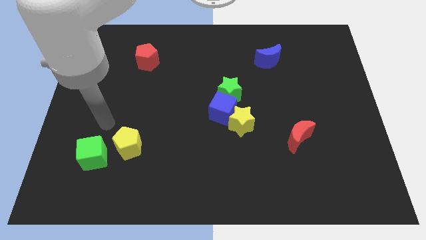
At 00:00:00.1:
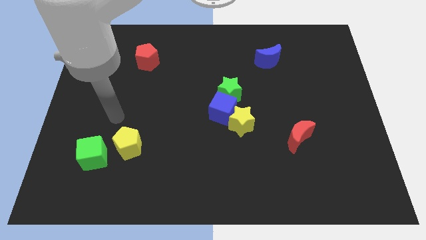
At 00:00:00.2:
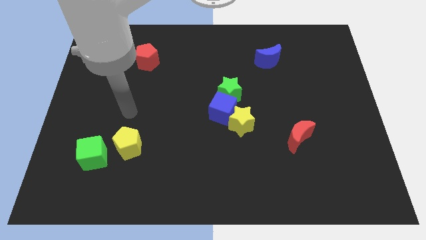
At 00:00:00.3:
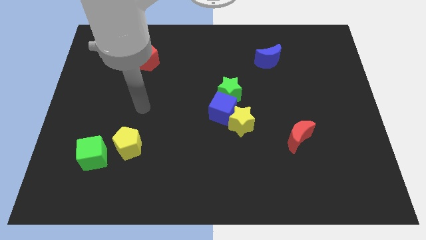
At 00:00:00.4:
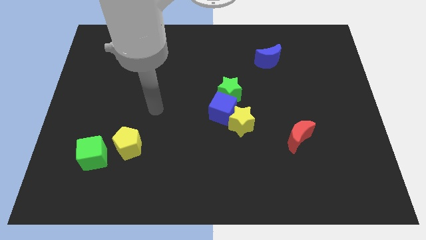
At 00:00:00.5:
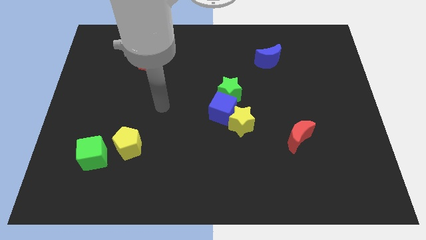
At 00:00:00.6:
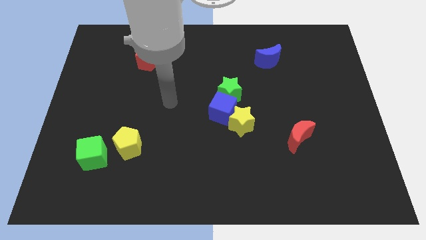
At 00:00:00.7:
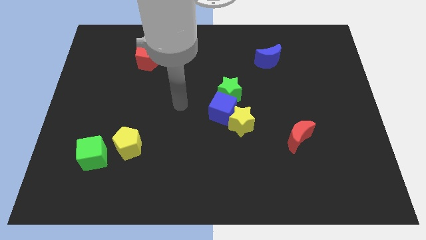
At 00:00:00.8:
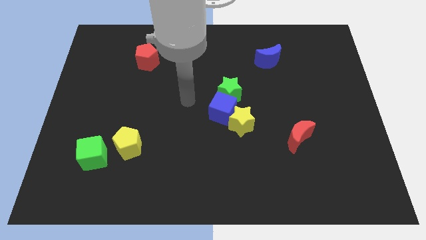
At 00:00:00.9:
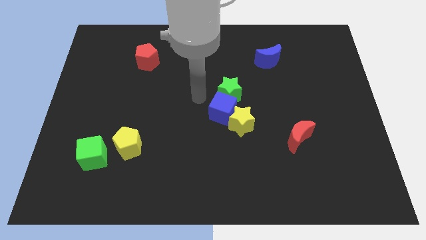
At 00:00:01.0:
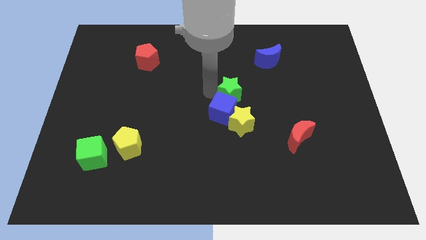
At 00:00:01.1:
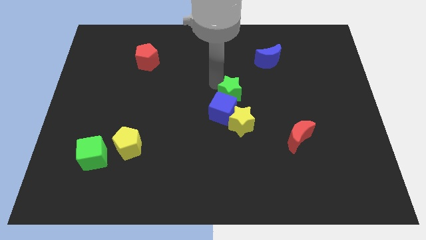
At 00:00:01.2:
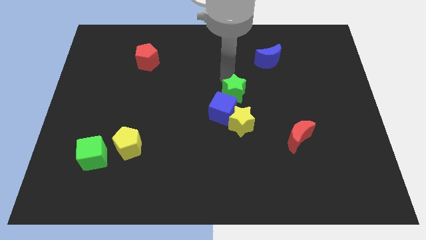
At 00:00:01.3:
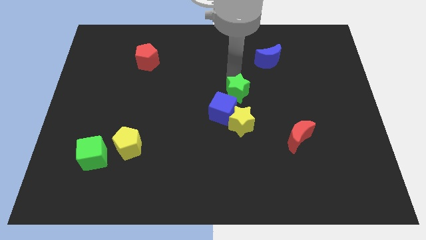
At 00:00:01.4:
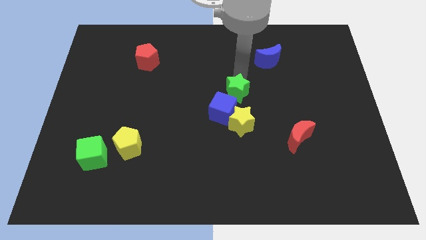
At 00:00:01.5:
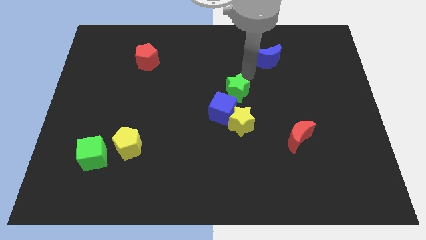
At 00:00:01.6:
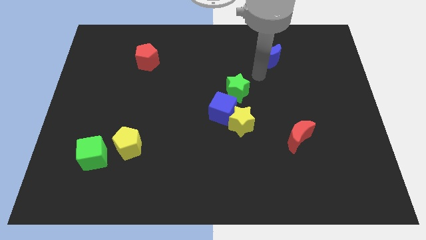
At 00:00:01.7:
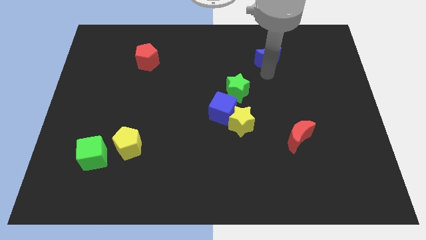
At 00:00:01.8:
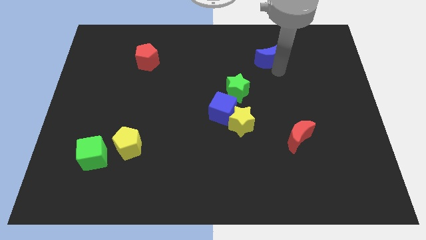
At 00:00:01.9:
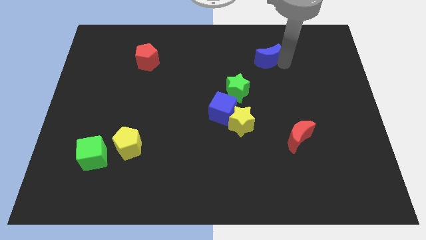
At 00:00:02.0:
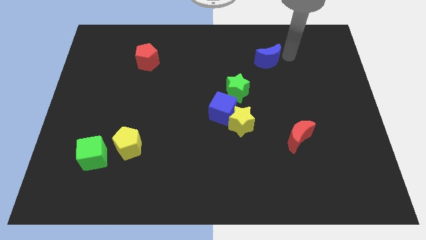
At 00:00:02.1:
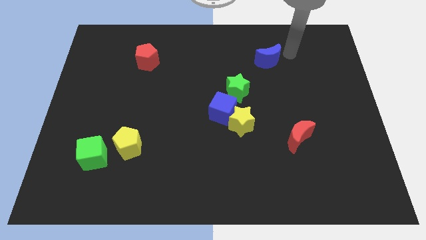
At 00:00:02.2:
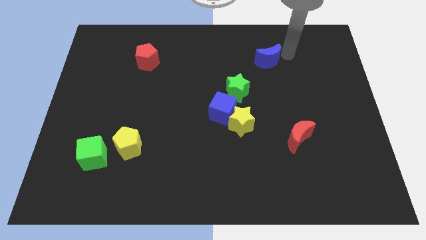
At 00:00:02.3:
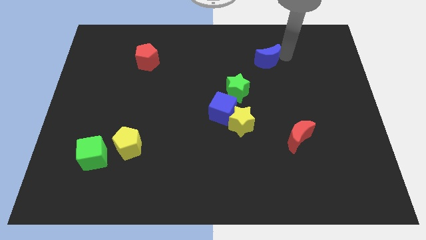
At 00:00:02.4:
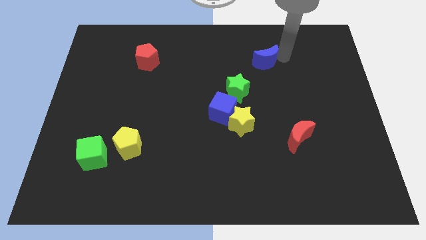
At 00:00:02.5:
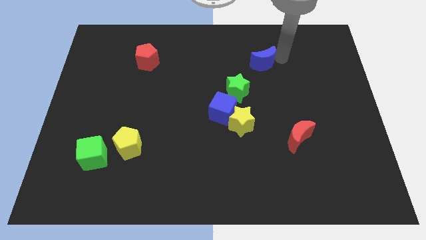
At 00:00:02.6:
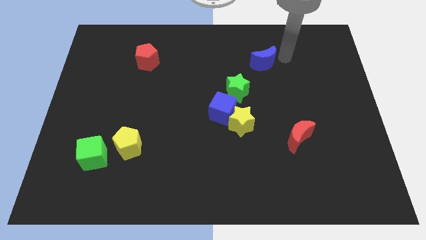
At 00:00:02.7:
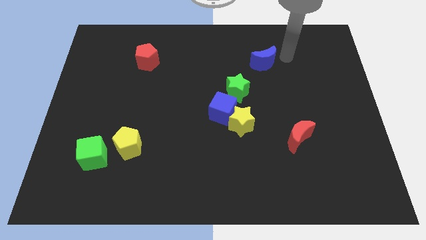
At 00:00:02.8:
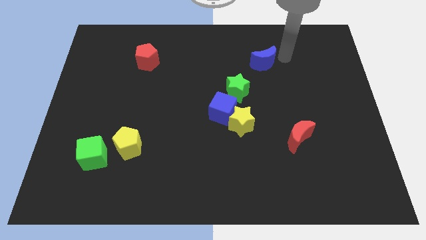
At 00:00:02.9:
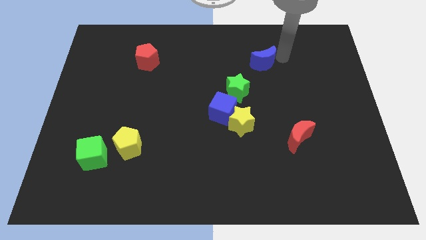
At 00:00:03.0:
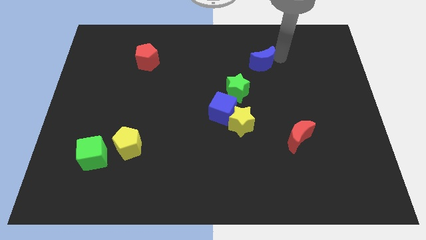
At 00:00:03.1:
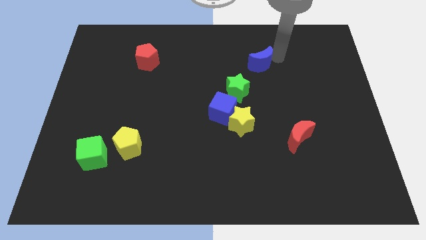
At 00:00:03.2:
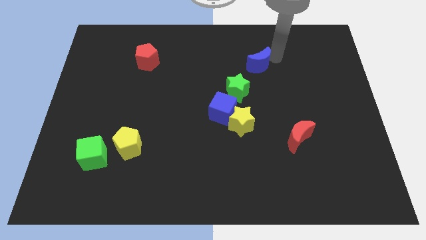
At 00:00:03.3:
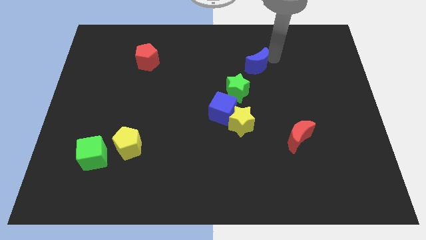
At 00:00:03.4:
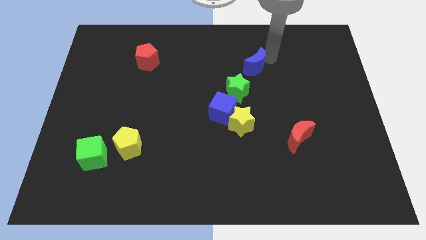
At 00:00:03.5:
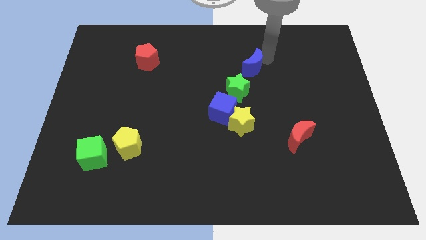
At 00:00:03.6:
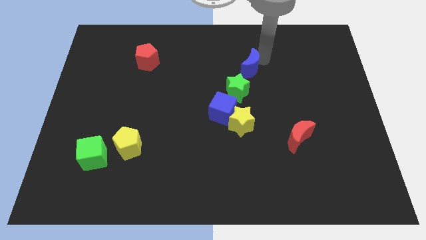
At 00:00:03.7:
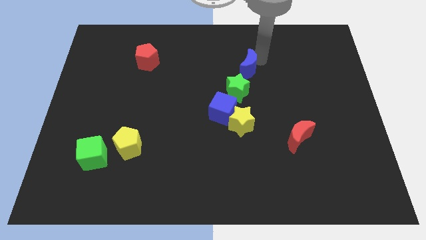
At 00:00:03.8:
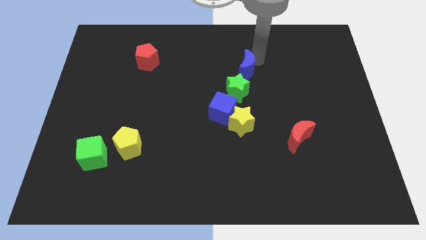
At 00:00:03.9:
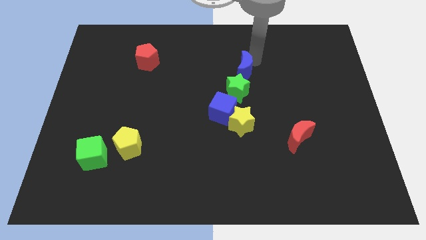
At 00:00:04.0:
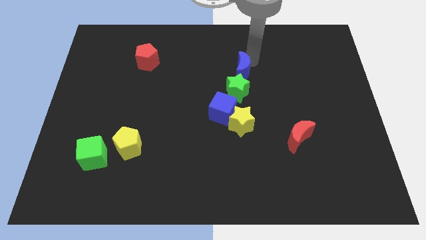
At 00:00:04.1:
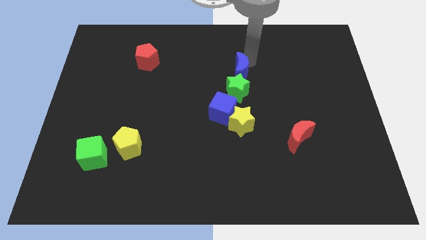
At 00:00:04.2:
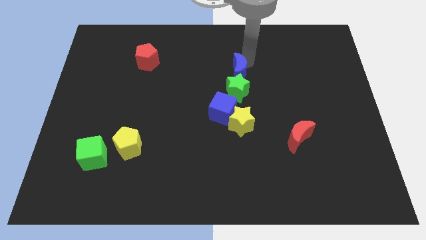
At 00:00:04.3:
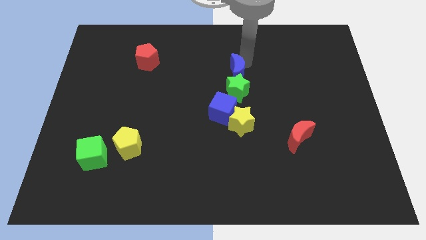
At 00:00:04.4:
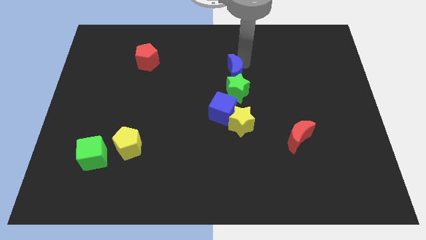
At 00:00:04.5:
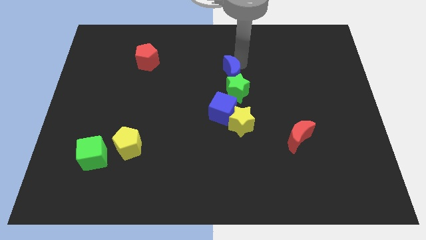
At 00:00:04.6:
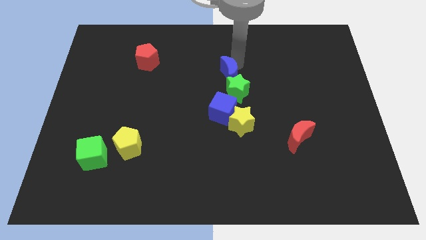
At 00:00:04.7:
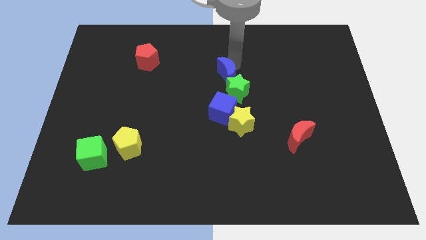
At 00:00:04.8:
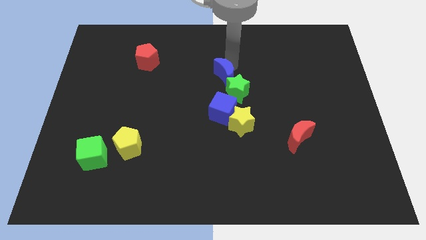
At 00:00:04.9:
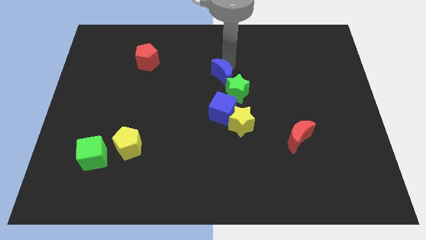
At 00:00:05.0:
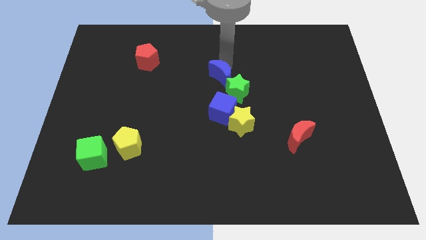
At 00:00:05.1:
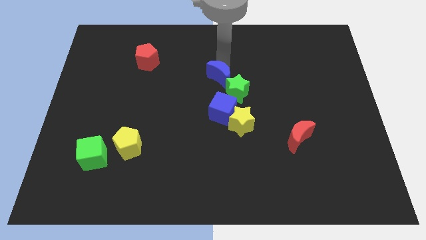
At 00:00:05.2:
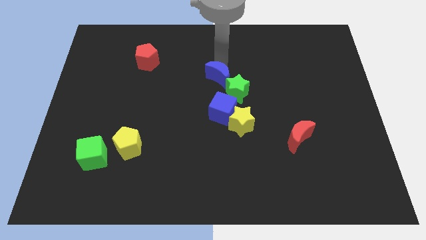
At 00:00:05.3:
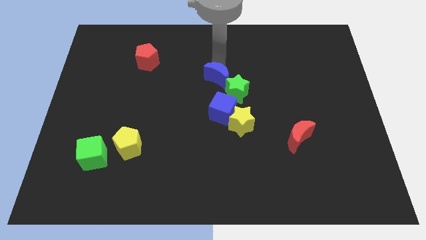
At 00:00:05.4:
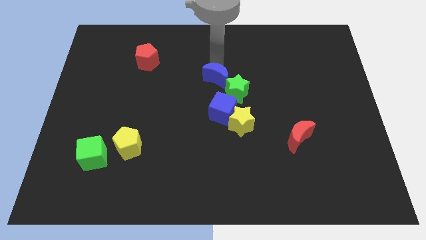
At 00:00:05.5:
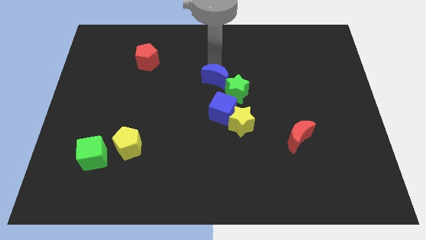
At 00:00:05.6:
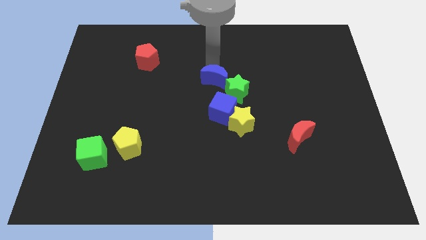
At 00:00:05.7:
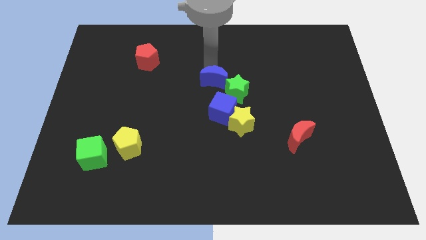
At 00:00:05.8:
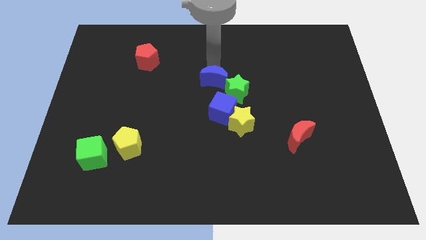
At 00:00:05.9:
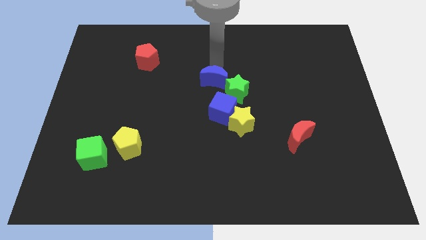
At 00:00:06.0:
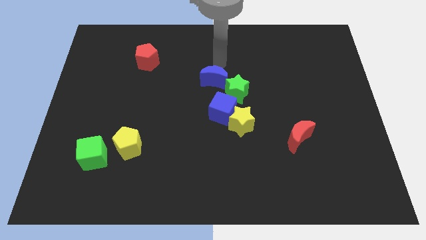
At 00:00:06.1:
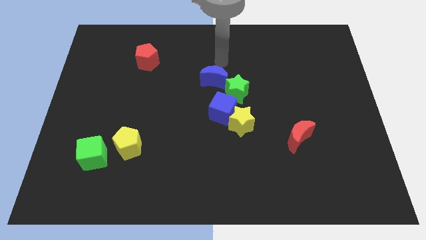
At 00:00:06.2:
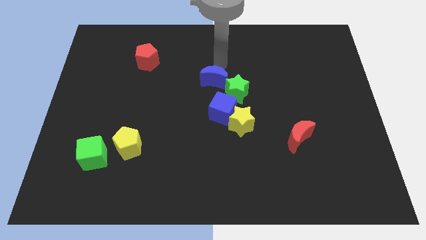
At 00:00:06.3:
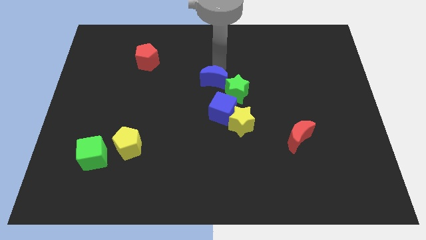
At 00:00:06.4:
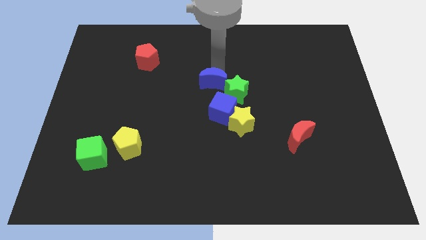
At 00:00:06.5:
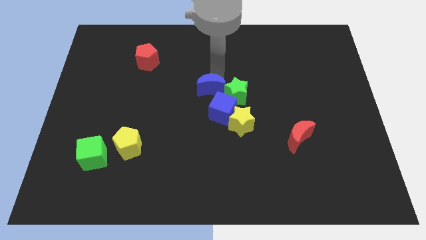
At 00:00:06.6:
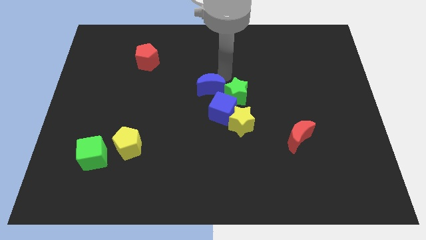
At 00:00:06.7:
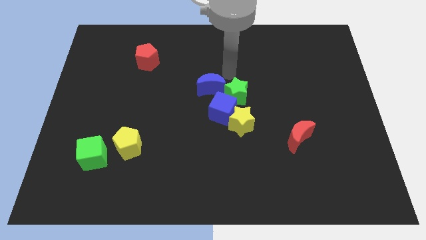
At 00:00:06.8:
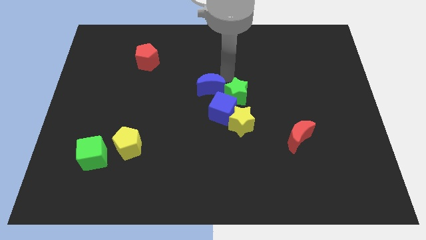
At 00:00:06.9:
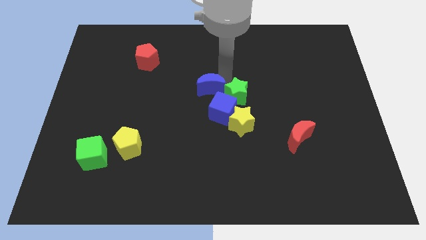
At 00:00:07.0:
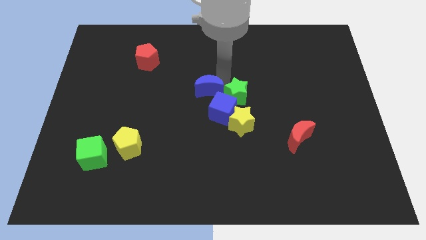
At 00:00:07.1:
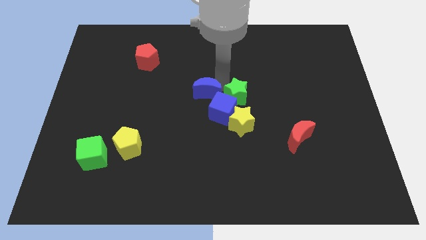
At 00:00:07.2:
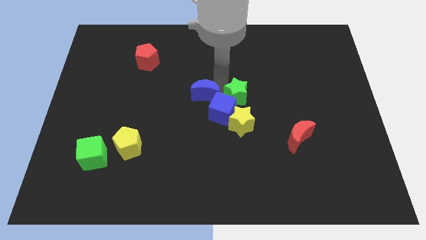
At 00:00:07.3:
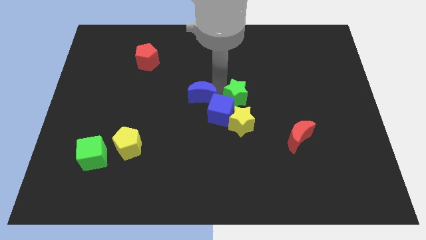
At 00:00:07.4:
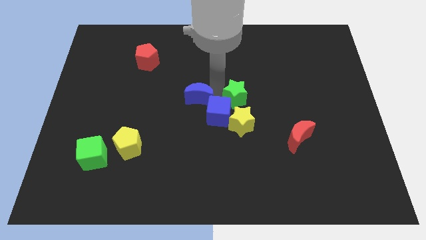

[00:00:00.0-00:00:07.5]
move the blue moon just left of the blue cube
